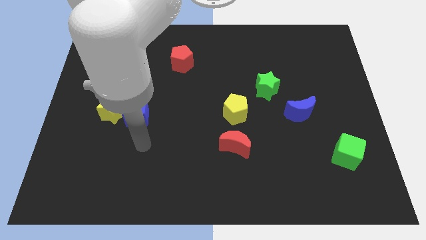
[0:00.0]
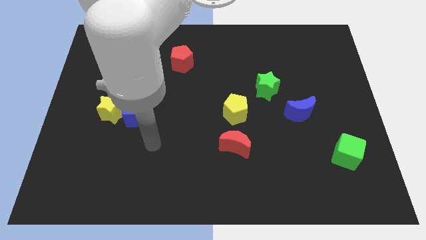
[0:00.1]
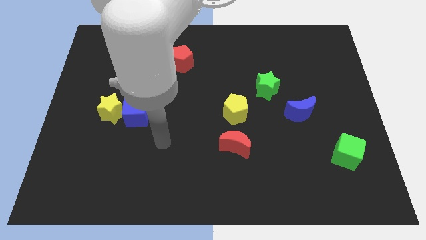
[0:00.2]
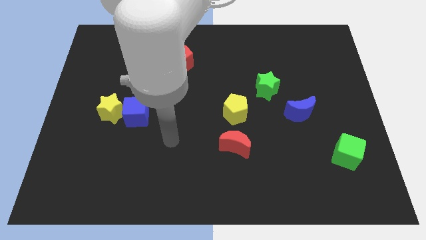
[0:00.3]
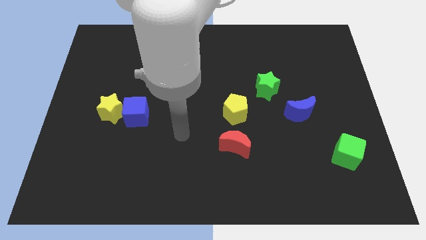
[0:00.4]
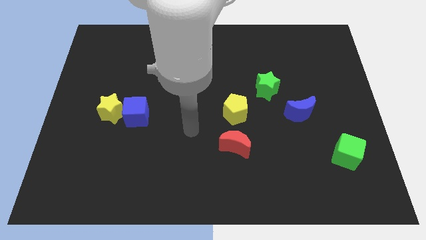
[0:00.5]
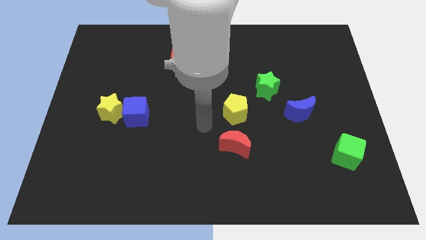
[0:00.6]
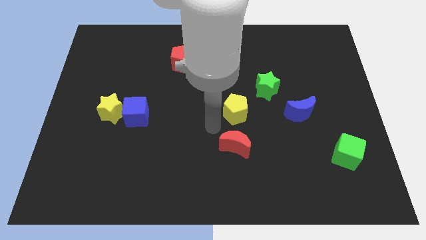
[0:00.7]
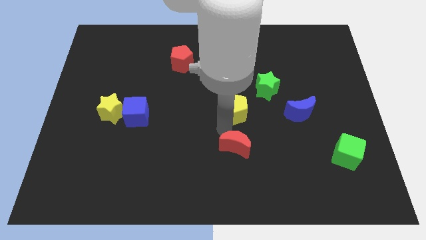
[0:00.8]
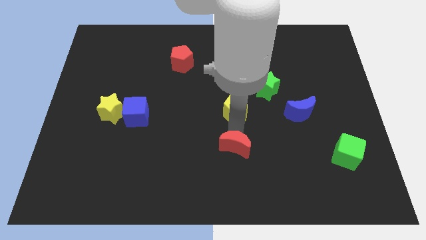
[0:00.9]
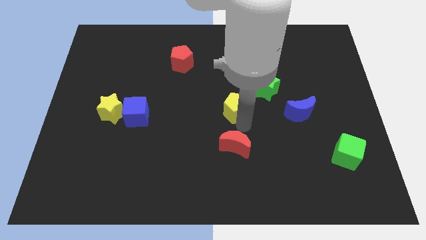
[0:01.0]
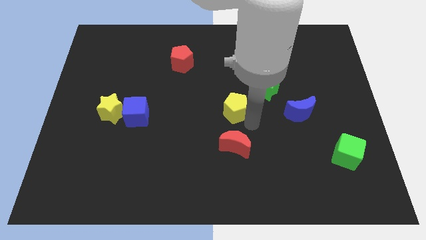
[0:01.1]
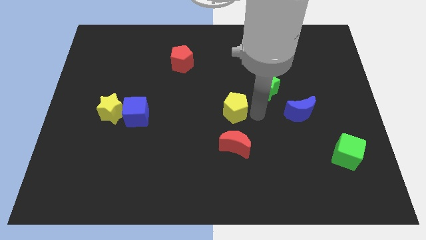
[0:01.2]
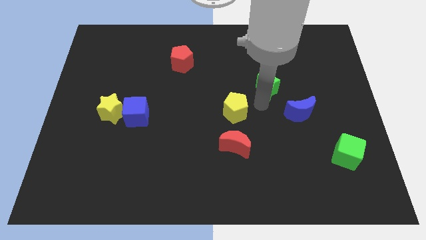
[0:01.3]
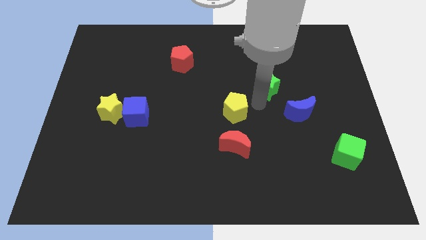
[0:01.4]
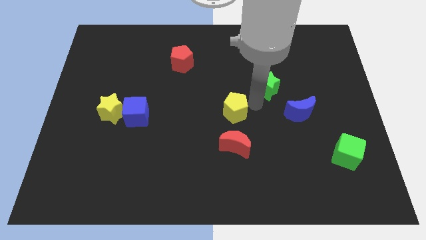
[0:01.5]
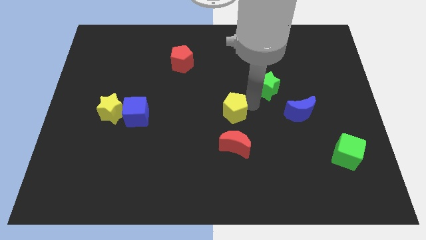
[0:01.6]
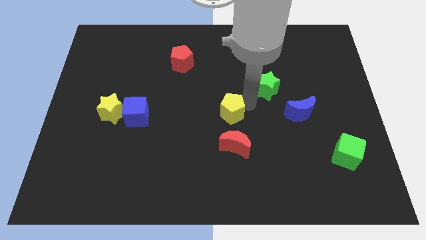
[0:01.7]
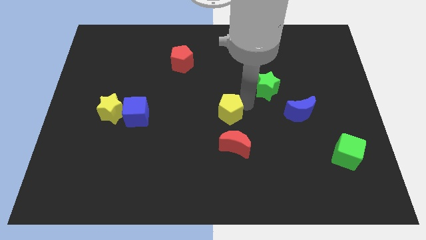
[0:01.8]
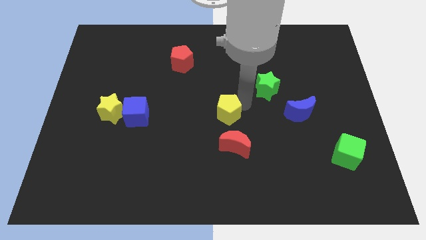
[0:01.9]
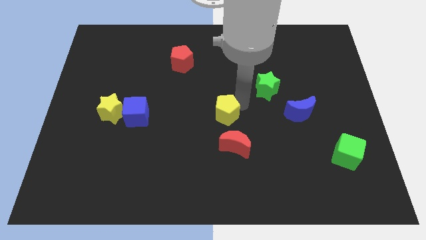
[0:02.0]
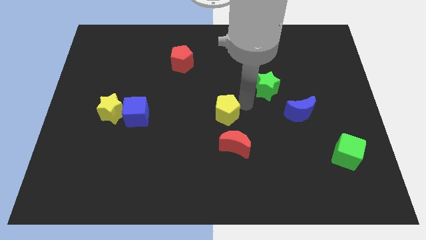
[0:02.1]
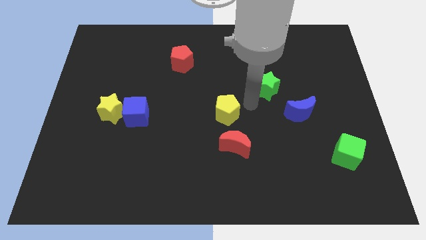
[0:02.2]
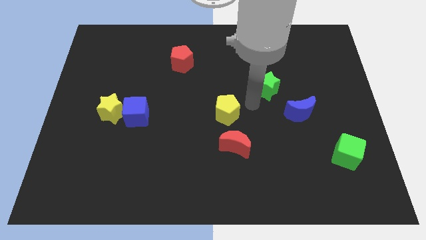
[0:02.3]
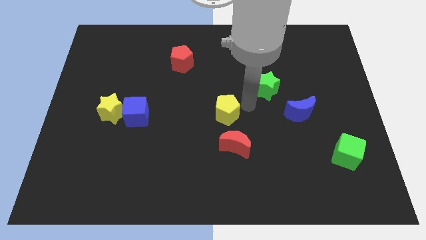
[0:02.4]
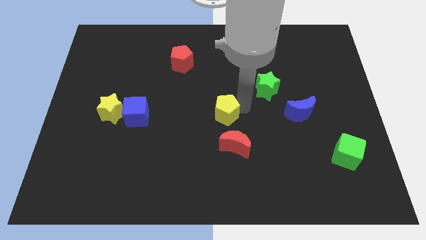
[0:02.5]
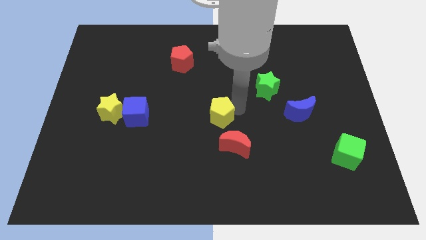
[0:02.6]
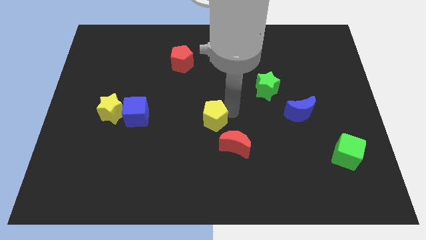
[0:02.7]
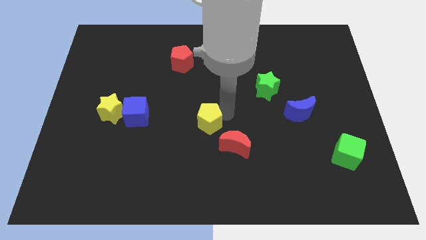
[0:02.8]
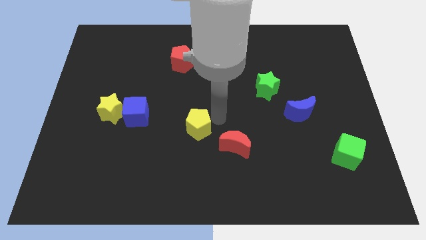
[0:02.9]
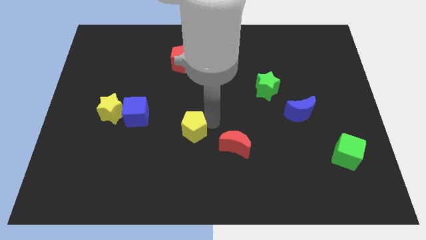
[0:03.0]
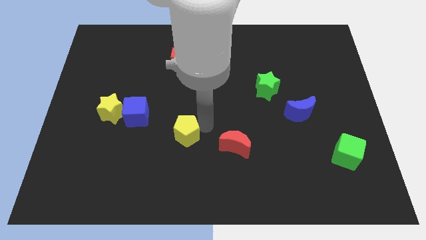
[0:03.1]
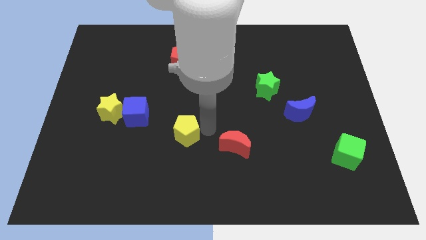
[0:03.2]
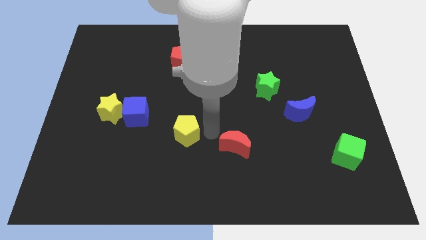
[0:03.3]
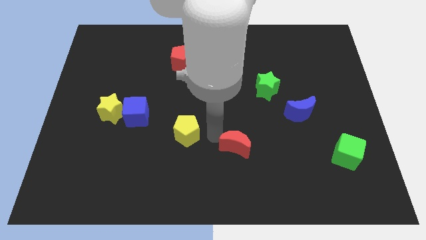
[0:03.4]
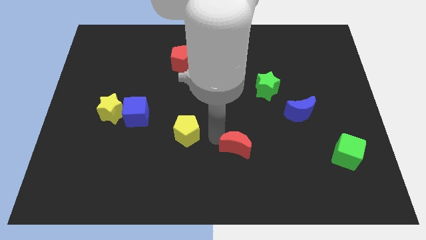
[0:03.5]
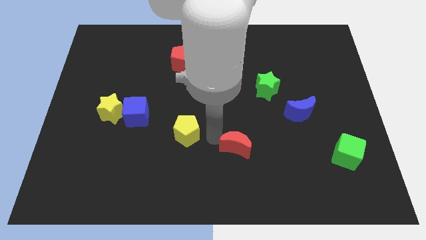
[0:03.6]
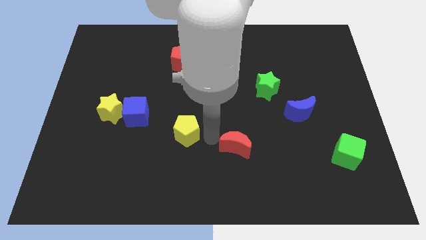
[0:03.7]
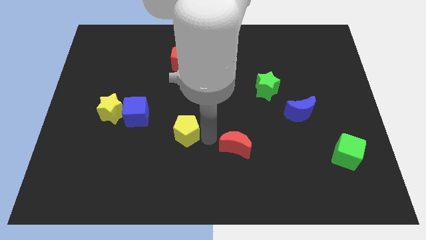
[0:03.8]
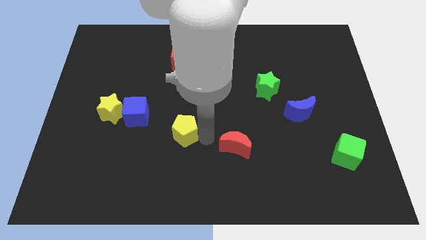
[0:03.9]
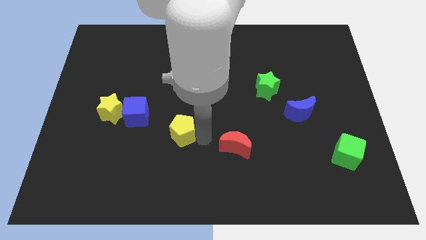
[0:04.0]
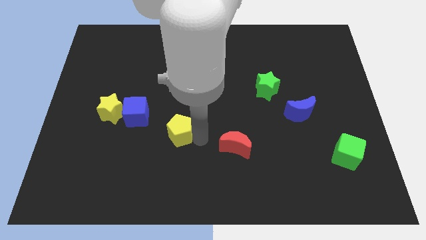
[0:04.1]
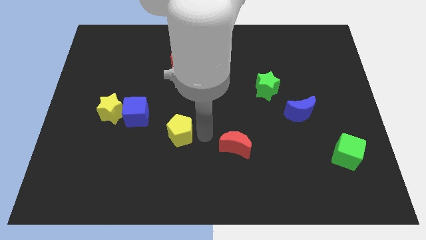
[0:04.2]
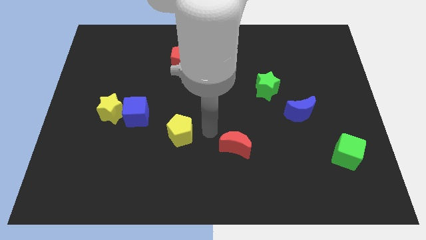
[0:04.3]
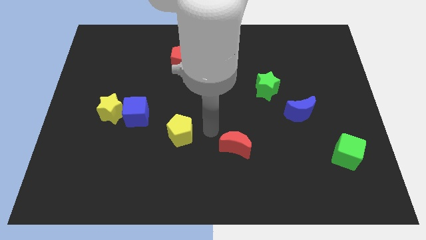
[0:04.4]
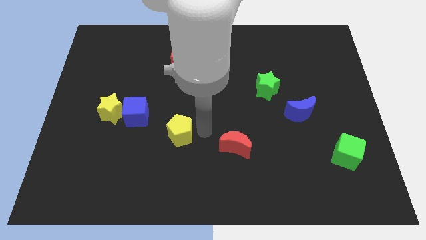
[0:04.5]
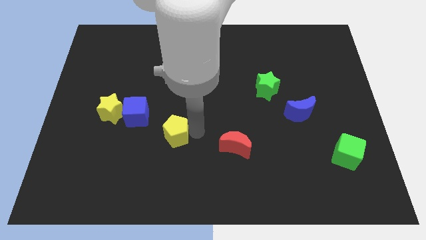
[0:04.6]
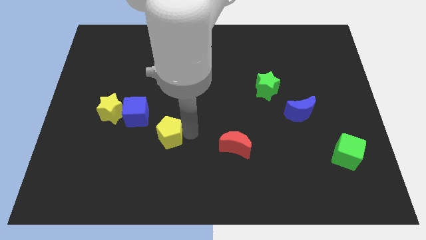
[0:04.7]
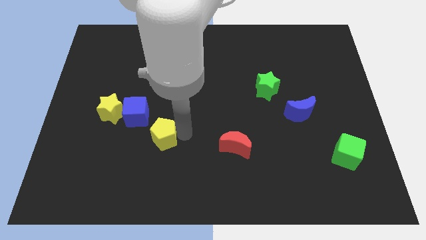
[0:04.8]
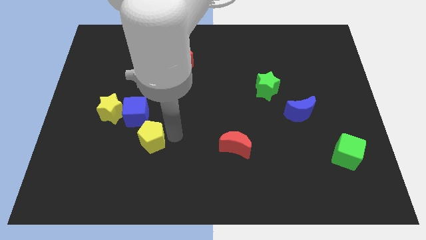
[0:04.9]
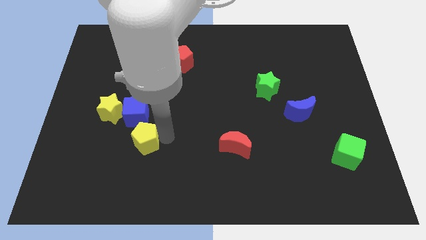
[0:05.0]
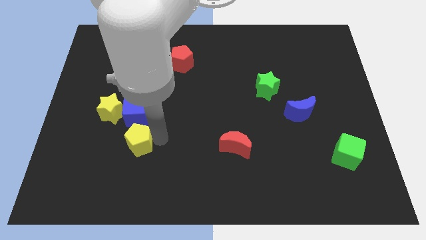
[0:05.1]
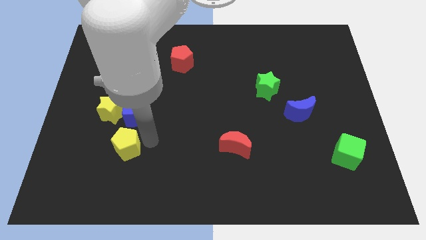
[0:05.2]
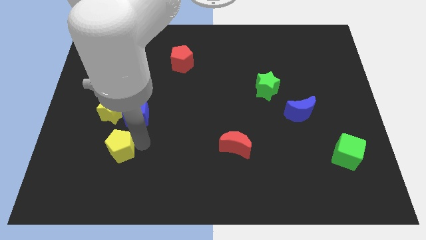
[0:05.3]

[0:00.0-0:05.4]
move the yellow pentagon to the bottom side of the yellow star

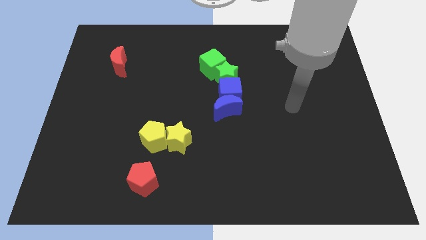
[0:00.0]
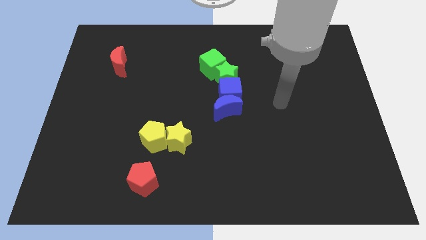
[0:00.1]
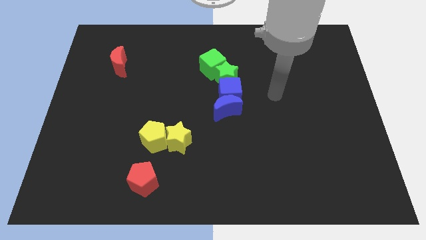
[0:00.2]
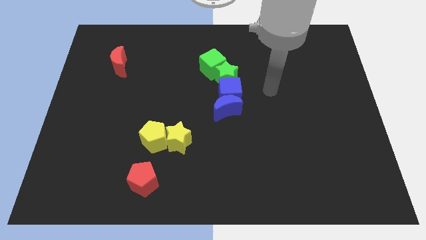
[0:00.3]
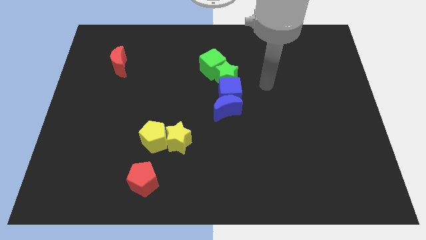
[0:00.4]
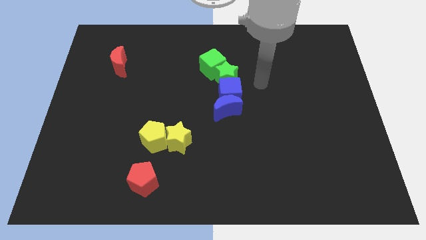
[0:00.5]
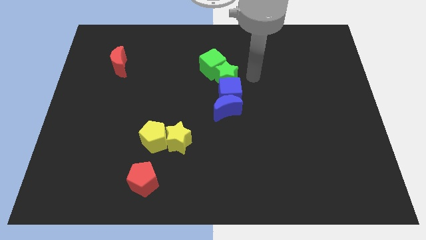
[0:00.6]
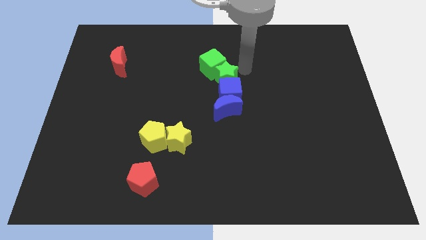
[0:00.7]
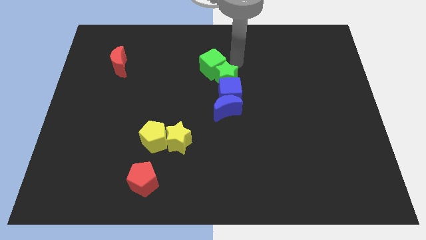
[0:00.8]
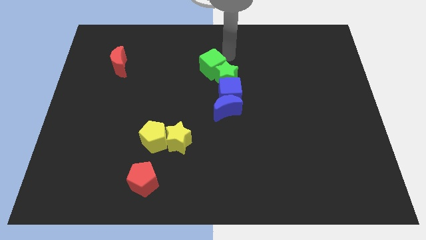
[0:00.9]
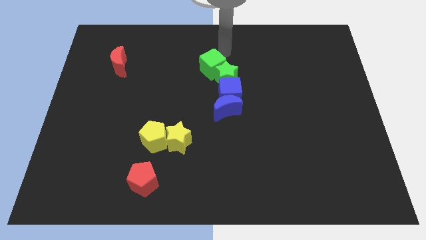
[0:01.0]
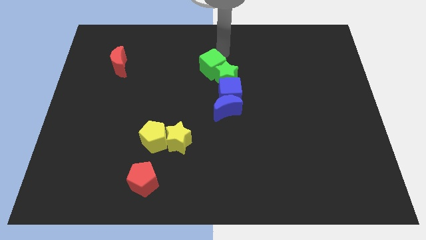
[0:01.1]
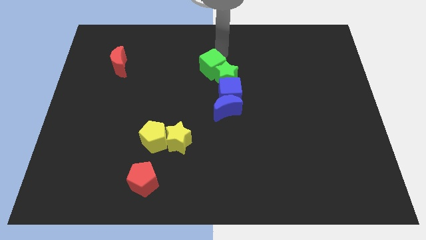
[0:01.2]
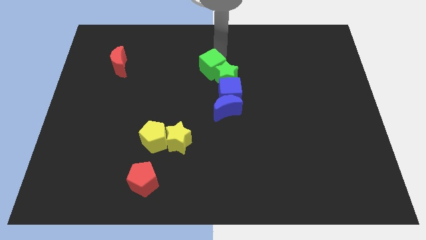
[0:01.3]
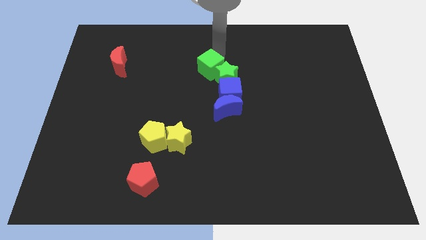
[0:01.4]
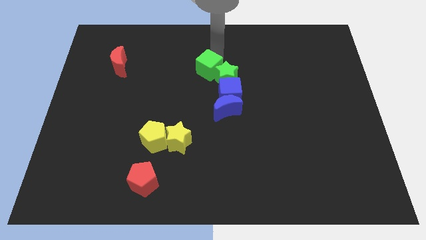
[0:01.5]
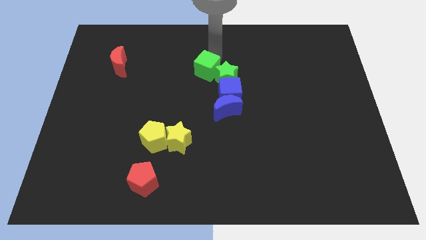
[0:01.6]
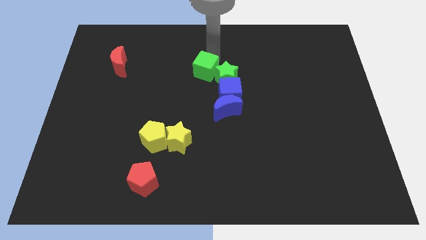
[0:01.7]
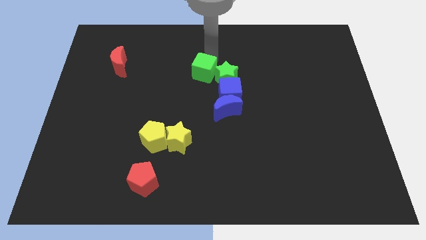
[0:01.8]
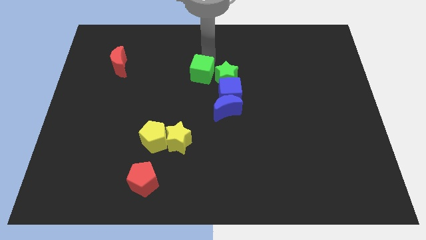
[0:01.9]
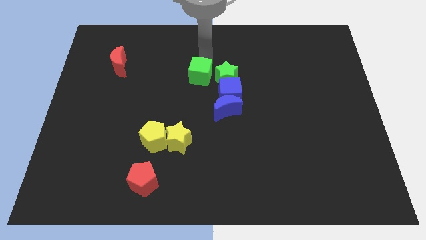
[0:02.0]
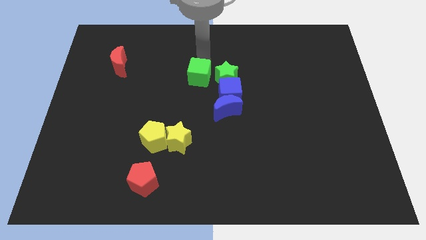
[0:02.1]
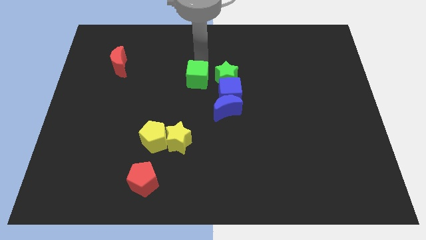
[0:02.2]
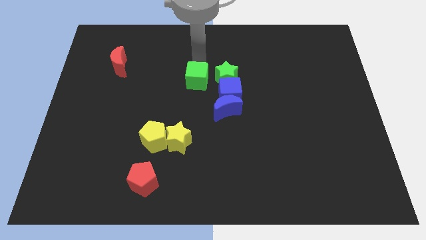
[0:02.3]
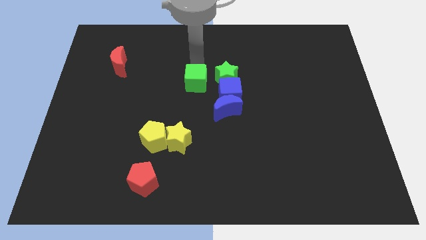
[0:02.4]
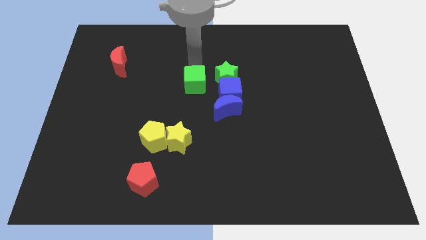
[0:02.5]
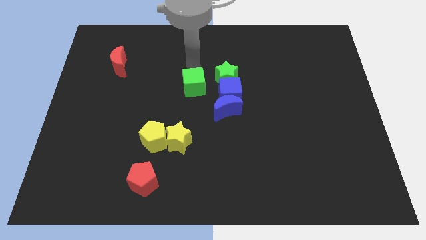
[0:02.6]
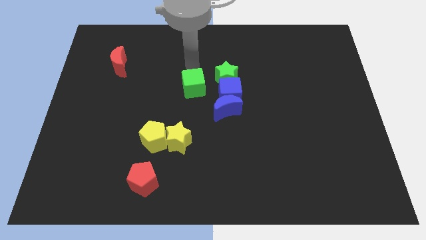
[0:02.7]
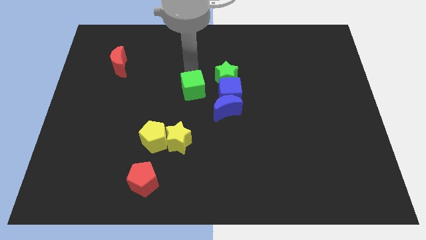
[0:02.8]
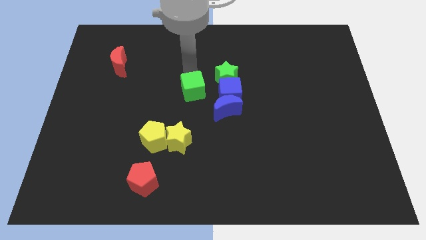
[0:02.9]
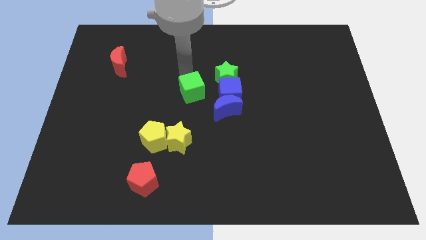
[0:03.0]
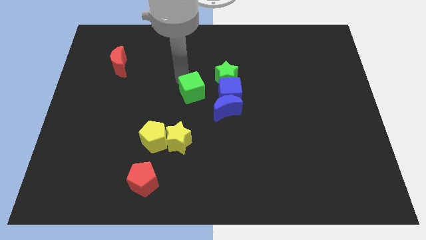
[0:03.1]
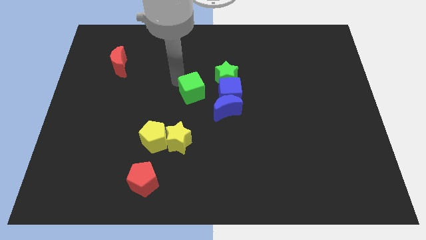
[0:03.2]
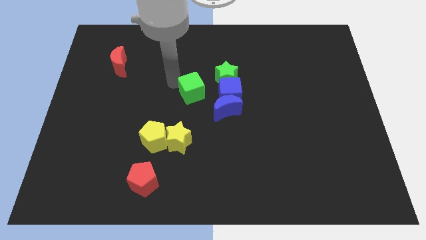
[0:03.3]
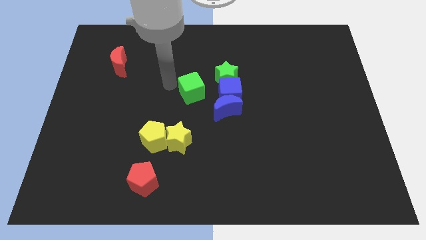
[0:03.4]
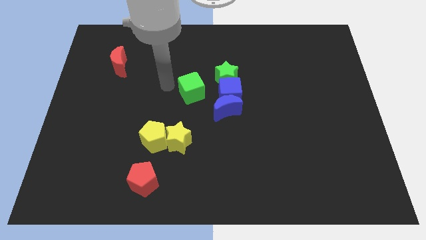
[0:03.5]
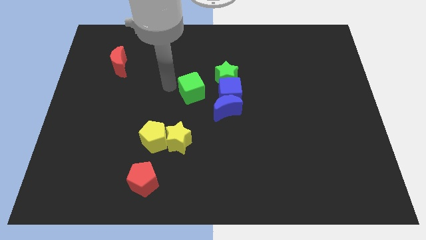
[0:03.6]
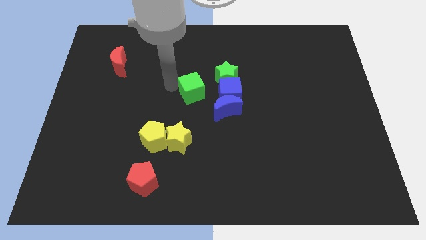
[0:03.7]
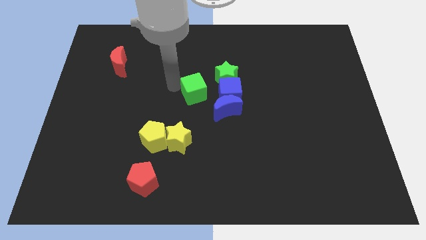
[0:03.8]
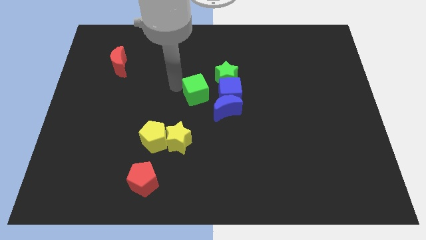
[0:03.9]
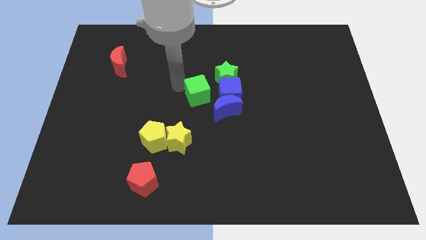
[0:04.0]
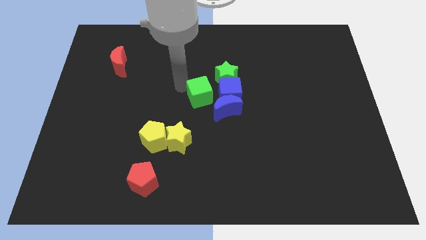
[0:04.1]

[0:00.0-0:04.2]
put the green cube to the bottom left side of the blue cube
